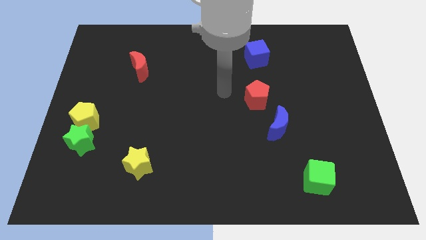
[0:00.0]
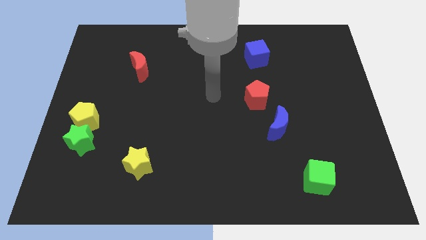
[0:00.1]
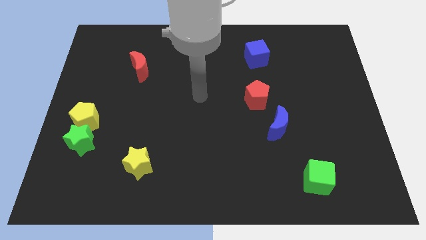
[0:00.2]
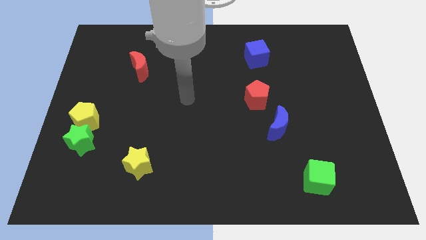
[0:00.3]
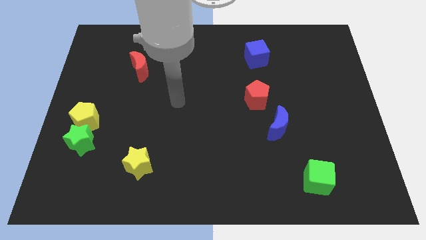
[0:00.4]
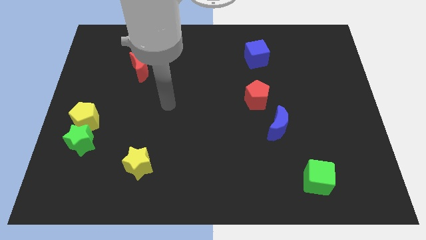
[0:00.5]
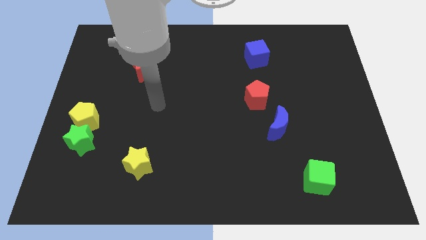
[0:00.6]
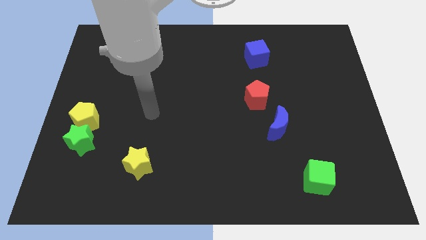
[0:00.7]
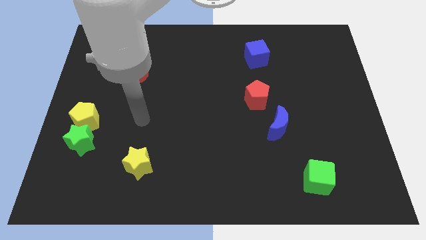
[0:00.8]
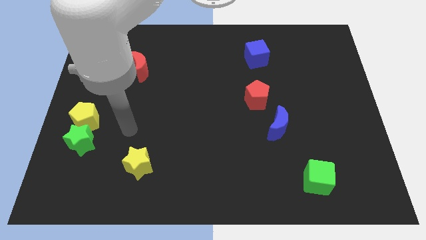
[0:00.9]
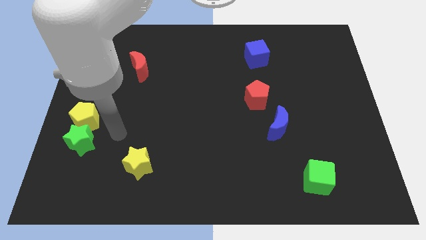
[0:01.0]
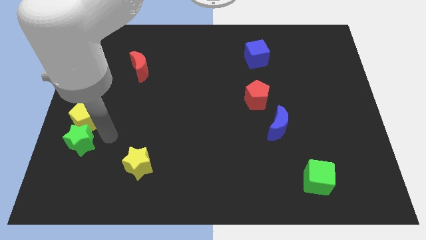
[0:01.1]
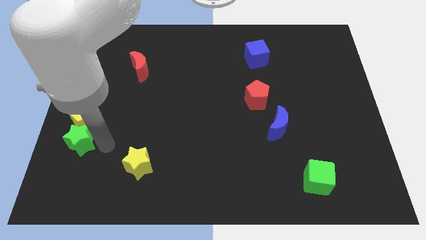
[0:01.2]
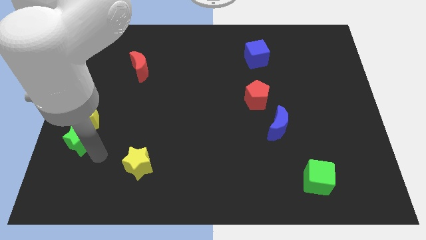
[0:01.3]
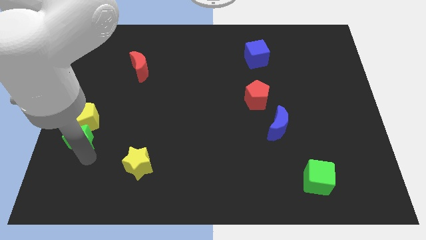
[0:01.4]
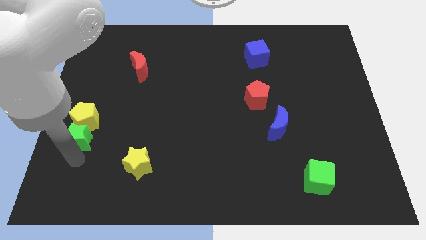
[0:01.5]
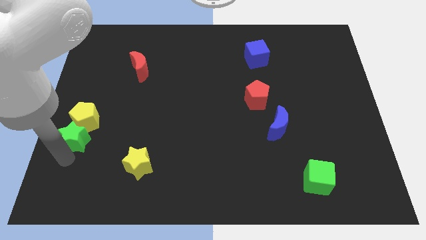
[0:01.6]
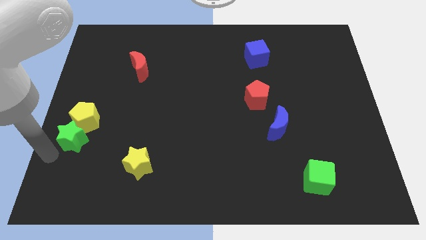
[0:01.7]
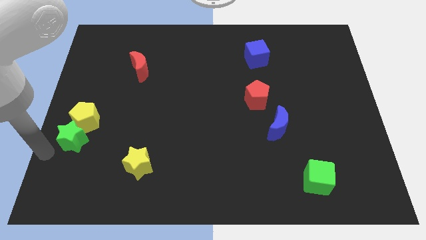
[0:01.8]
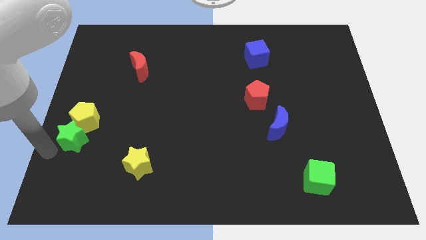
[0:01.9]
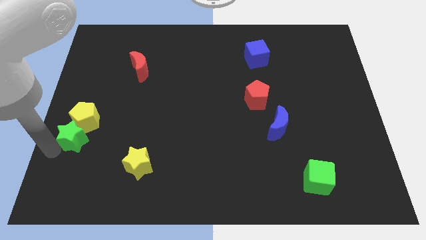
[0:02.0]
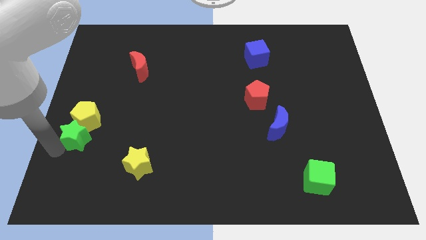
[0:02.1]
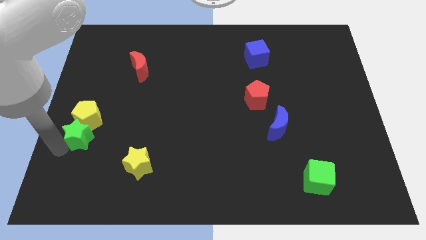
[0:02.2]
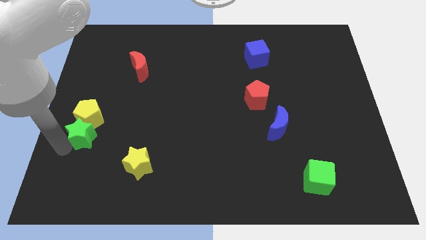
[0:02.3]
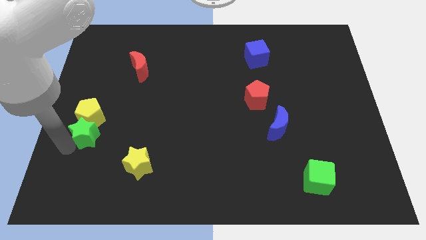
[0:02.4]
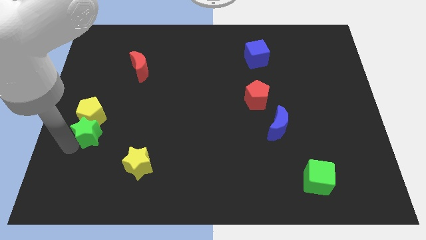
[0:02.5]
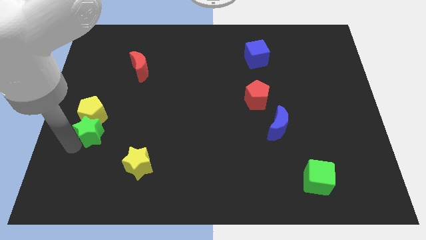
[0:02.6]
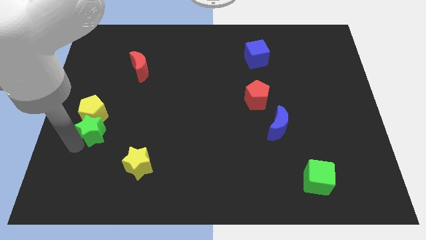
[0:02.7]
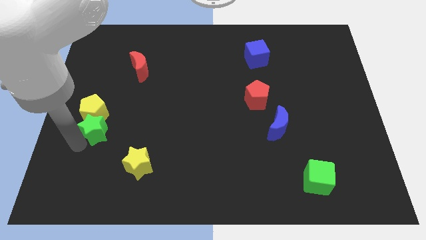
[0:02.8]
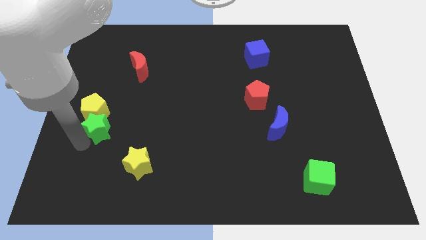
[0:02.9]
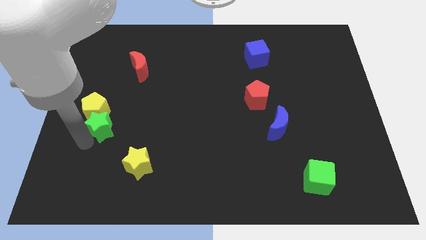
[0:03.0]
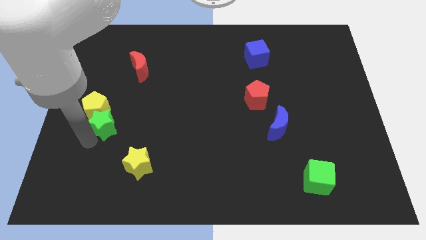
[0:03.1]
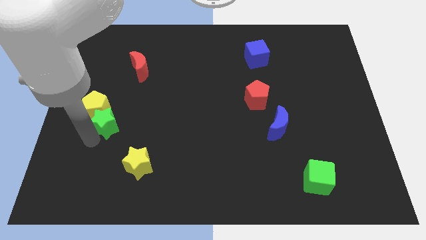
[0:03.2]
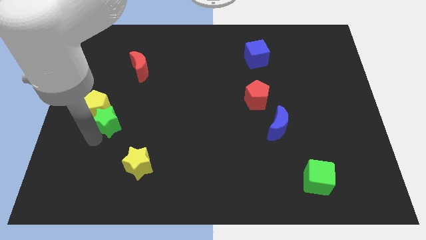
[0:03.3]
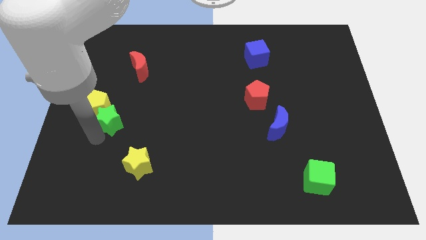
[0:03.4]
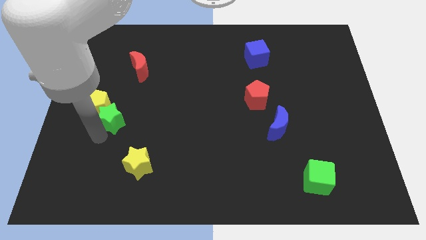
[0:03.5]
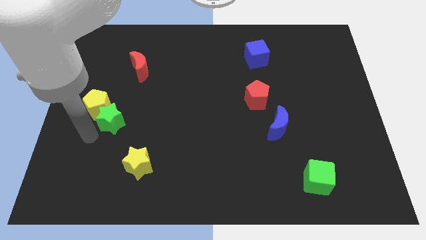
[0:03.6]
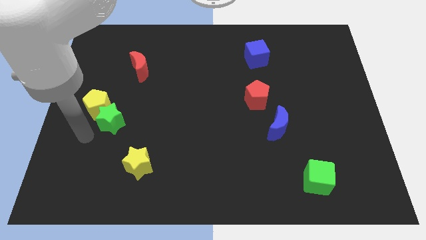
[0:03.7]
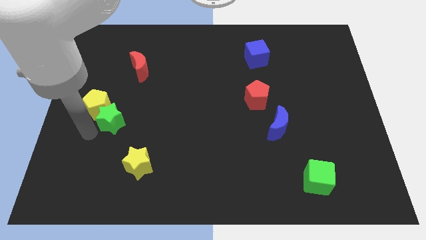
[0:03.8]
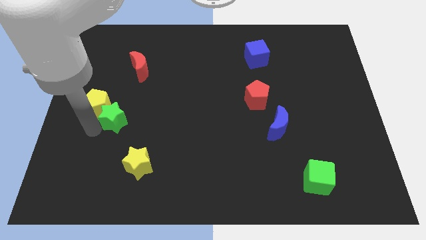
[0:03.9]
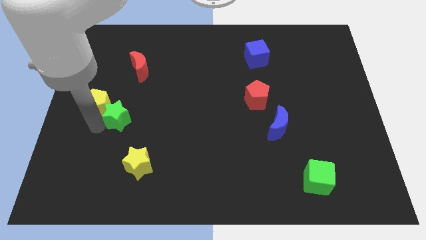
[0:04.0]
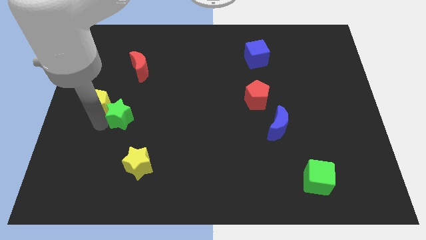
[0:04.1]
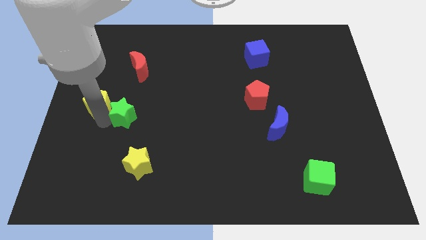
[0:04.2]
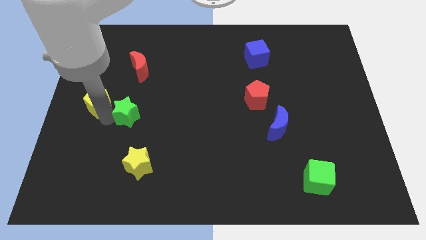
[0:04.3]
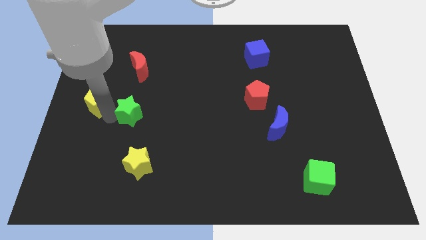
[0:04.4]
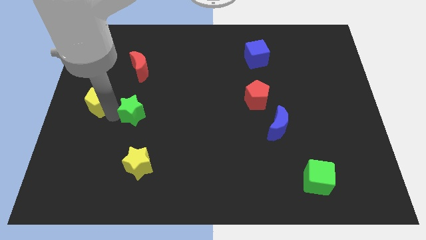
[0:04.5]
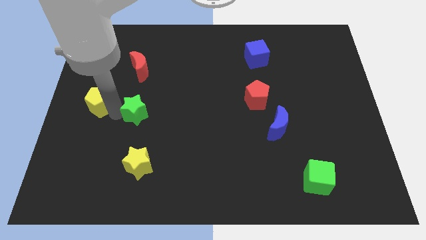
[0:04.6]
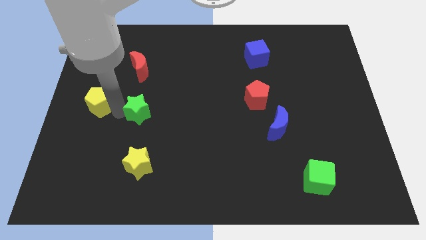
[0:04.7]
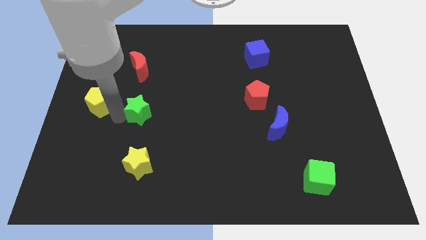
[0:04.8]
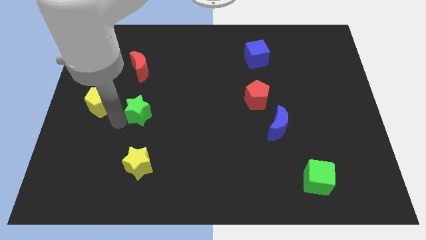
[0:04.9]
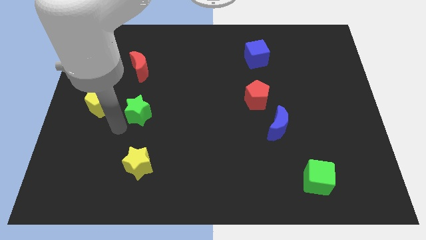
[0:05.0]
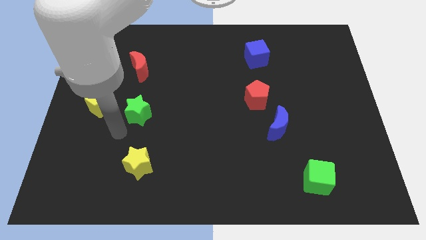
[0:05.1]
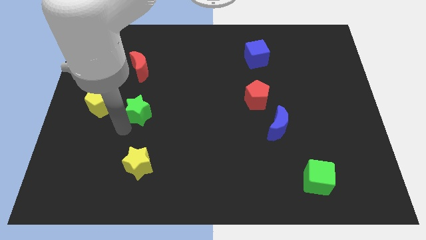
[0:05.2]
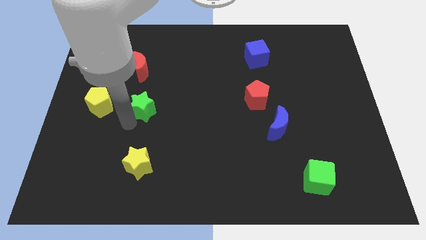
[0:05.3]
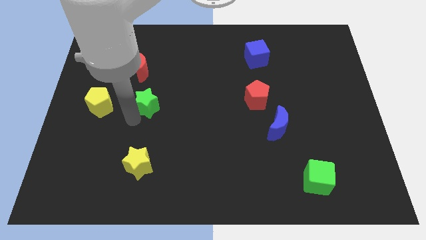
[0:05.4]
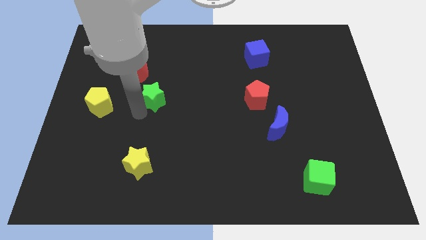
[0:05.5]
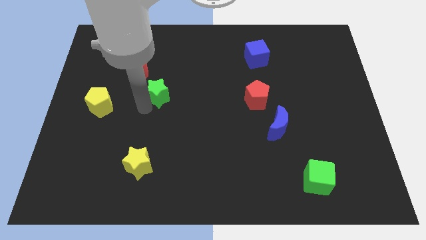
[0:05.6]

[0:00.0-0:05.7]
slide the green star upwards and to the right diagonally

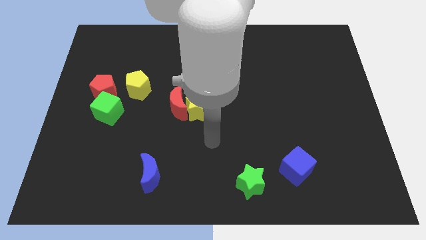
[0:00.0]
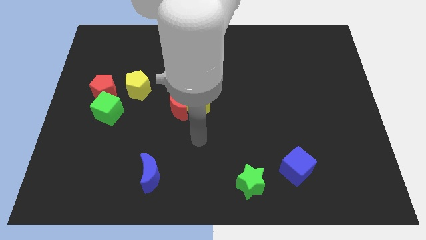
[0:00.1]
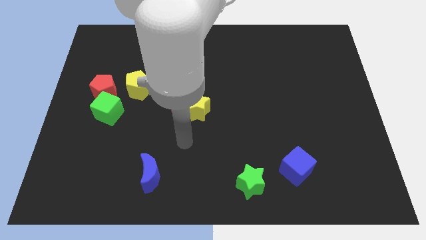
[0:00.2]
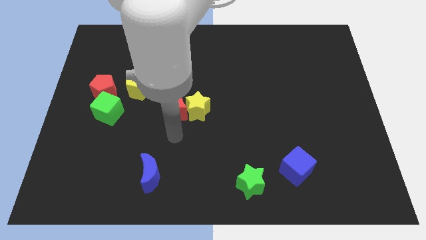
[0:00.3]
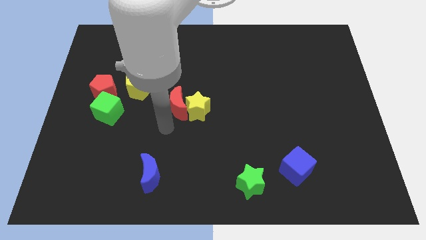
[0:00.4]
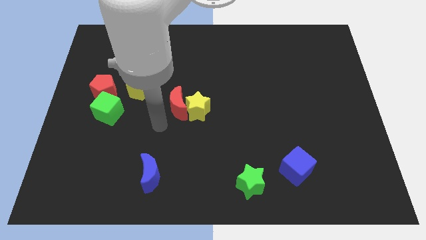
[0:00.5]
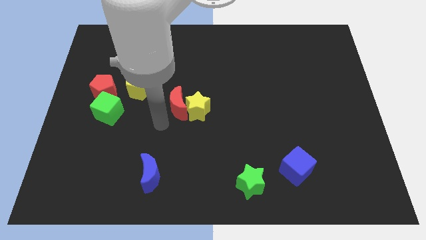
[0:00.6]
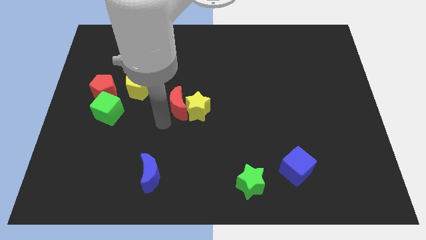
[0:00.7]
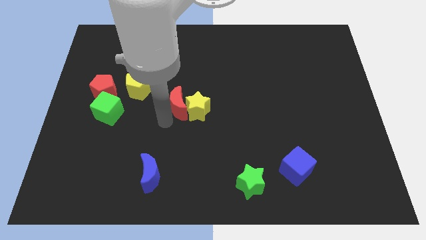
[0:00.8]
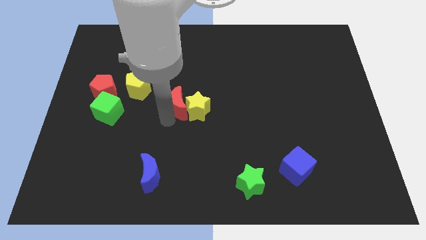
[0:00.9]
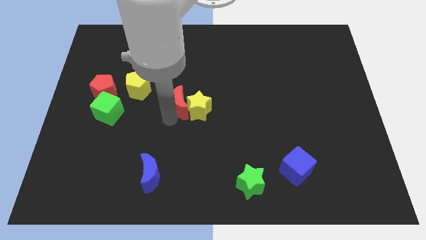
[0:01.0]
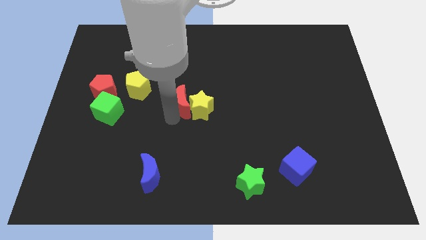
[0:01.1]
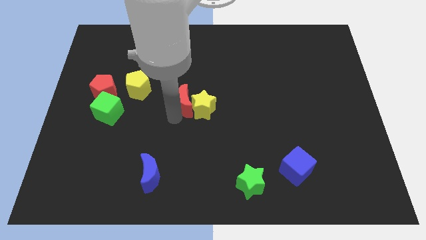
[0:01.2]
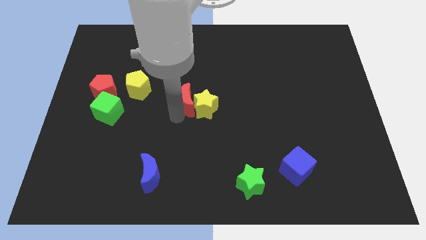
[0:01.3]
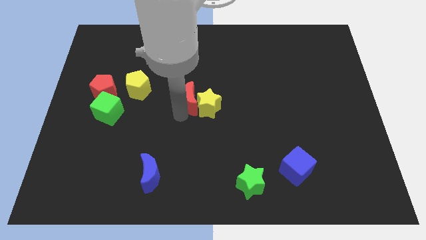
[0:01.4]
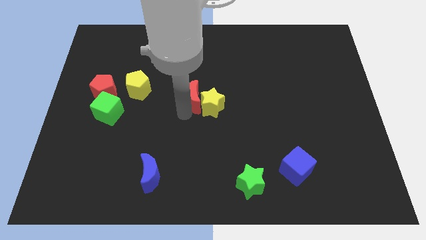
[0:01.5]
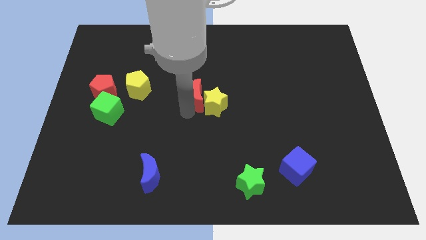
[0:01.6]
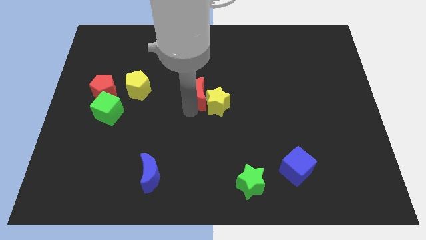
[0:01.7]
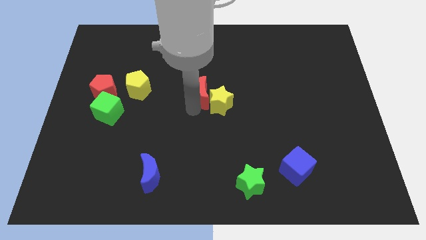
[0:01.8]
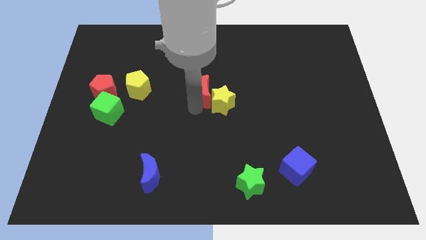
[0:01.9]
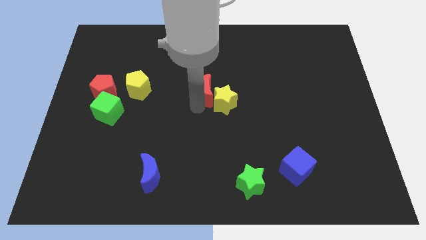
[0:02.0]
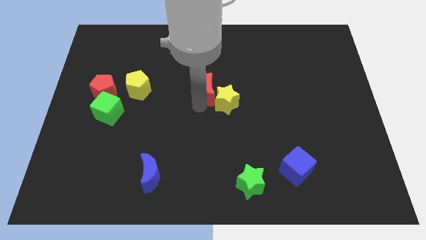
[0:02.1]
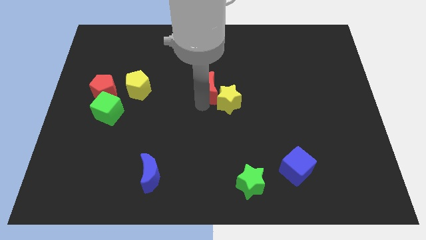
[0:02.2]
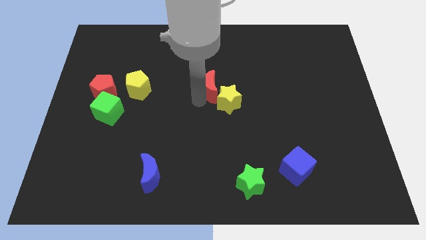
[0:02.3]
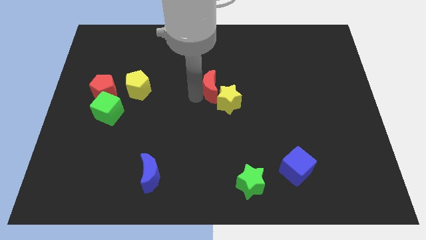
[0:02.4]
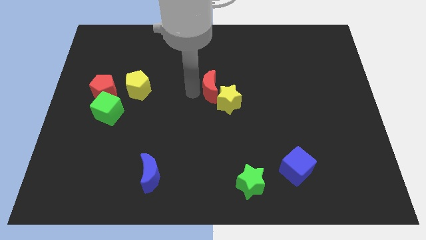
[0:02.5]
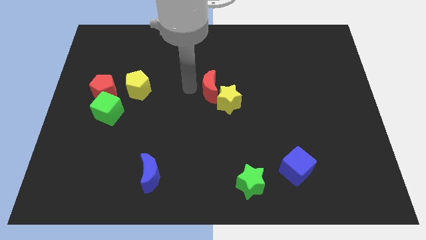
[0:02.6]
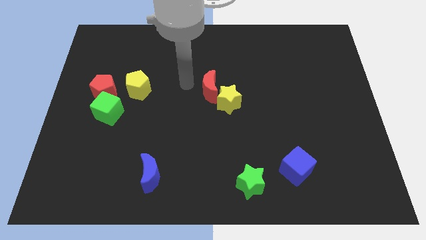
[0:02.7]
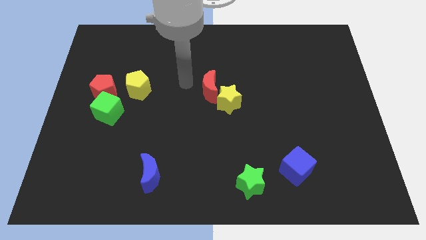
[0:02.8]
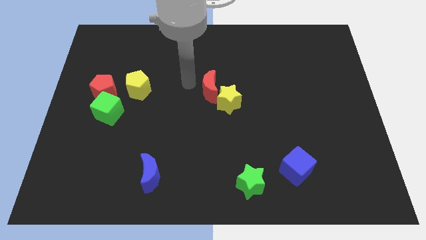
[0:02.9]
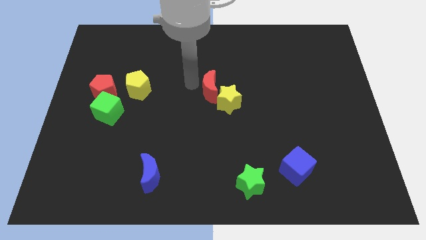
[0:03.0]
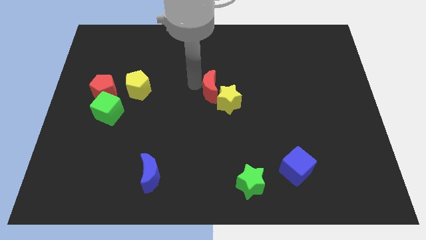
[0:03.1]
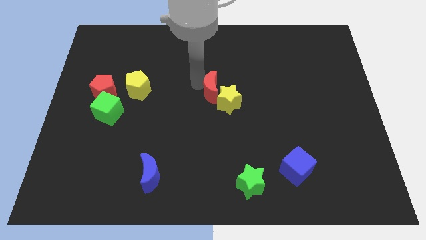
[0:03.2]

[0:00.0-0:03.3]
push the red moon a bit right
